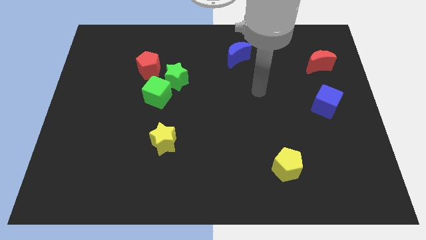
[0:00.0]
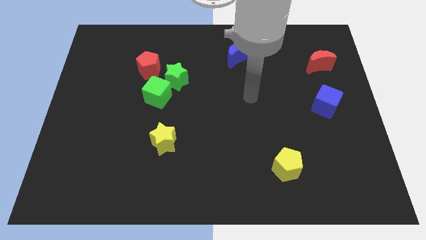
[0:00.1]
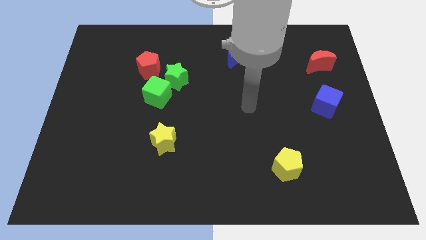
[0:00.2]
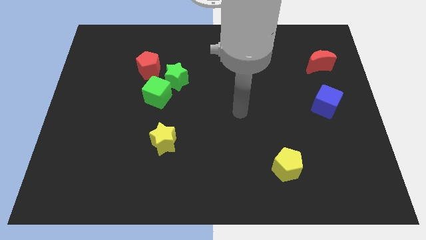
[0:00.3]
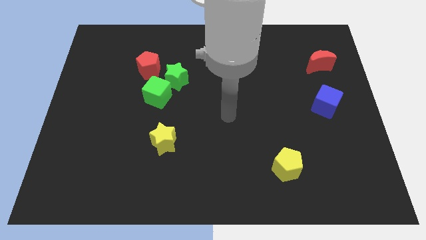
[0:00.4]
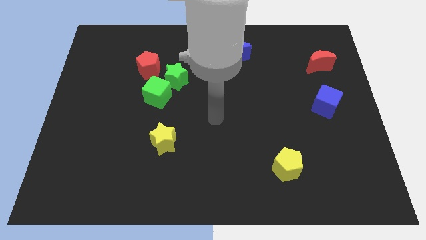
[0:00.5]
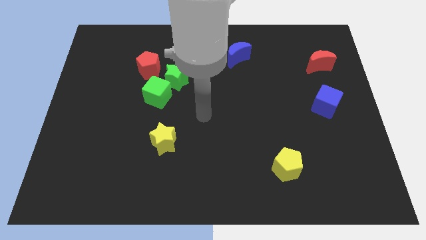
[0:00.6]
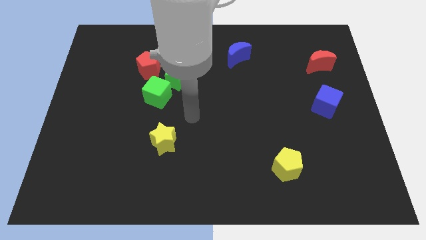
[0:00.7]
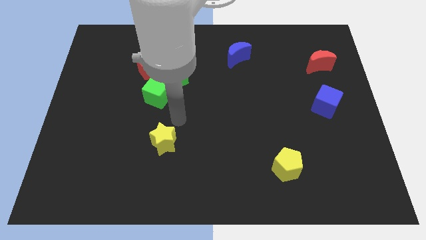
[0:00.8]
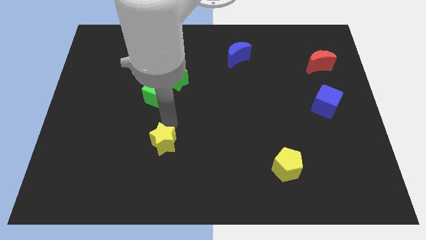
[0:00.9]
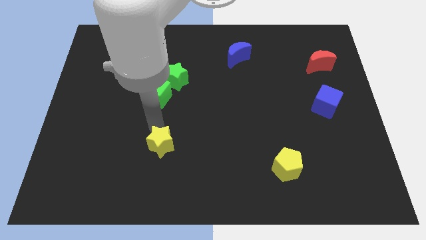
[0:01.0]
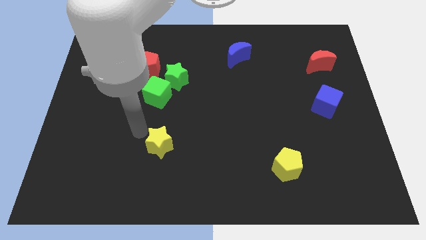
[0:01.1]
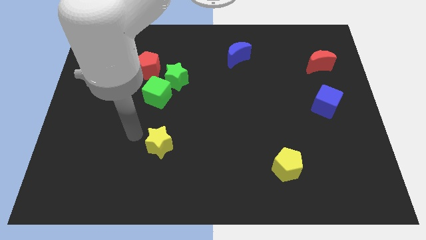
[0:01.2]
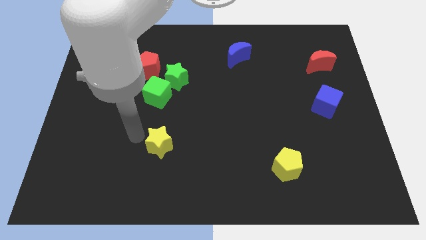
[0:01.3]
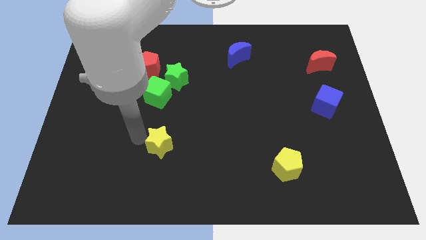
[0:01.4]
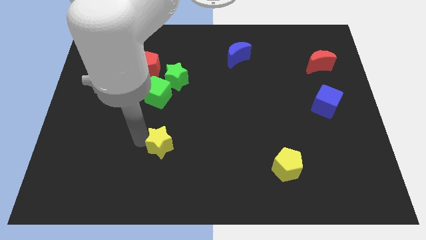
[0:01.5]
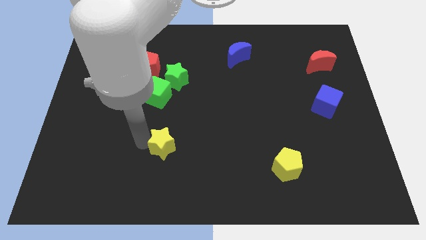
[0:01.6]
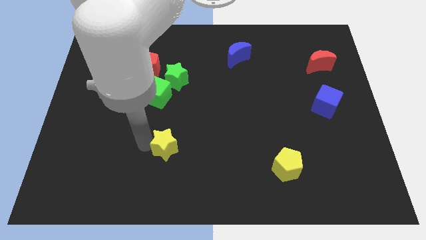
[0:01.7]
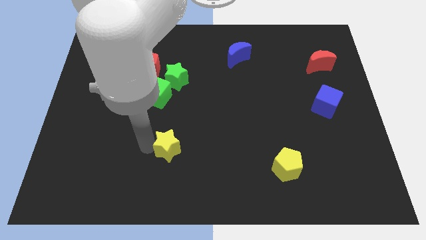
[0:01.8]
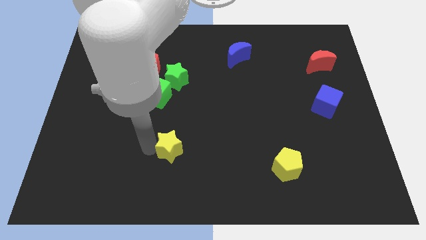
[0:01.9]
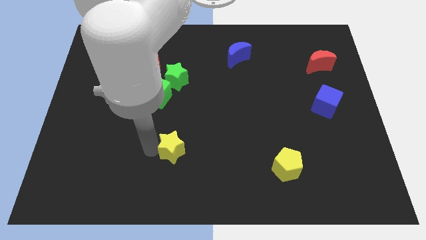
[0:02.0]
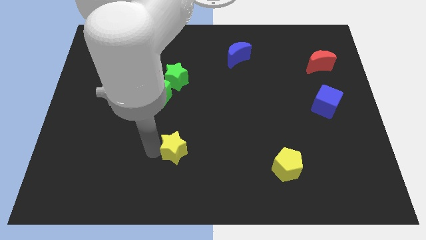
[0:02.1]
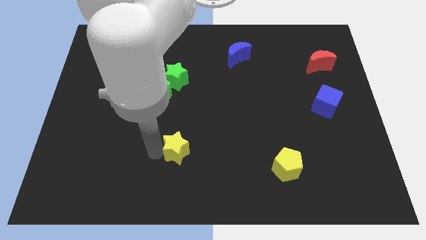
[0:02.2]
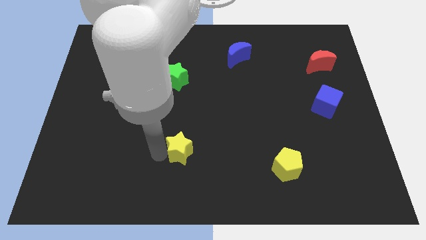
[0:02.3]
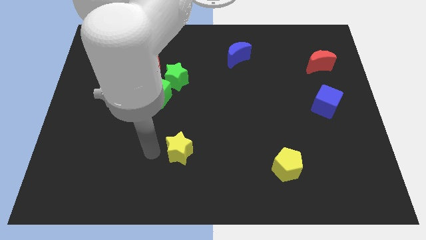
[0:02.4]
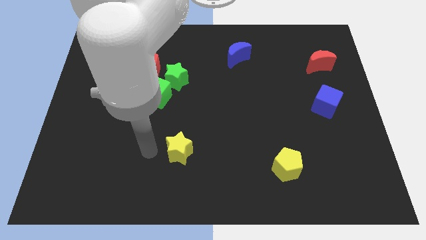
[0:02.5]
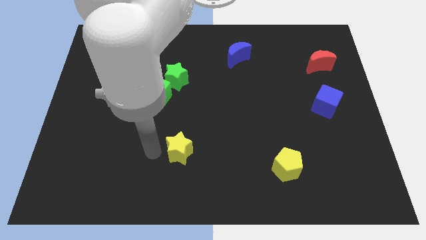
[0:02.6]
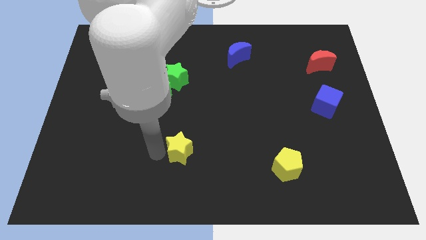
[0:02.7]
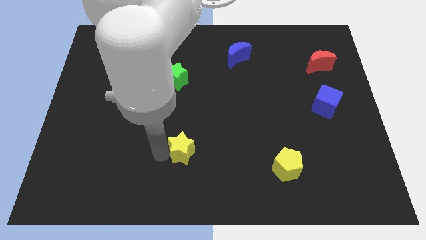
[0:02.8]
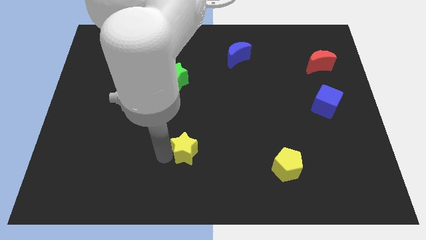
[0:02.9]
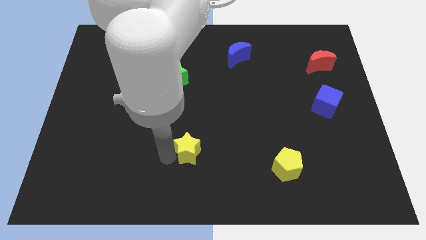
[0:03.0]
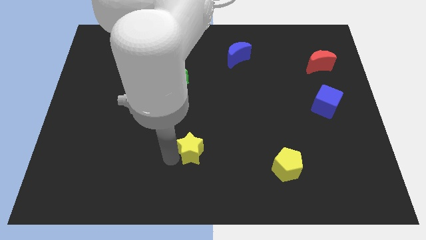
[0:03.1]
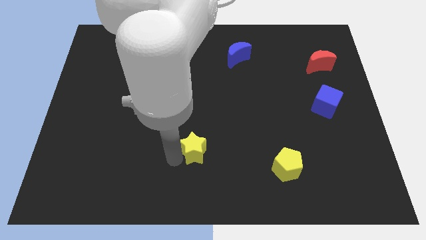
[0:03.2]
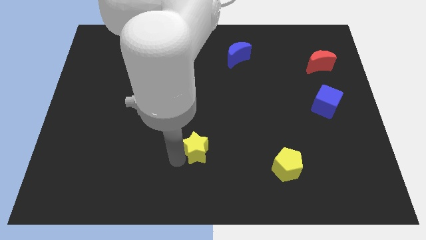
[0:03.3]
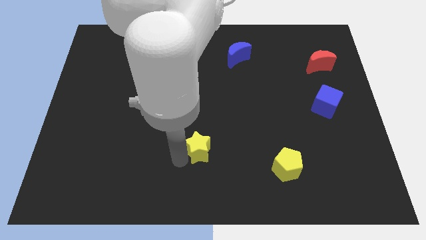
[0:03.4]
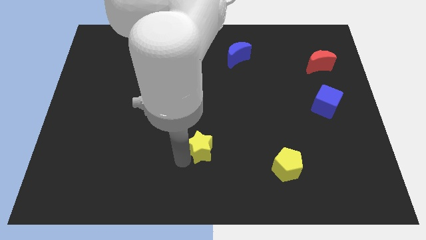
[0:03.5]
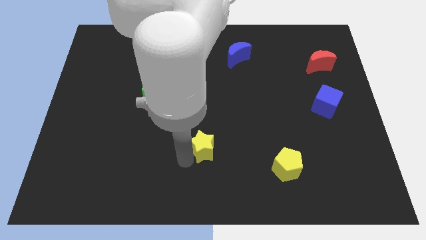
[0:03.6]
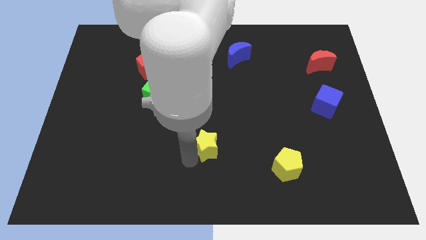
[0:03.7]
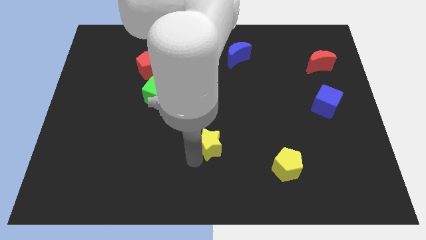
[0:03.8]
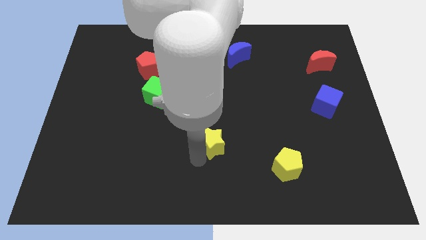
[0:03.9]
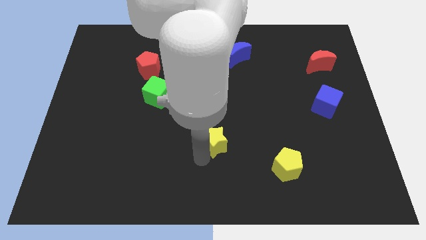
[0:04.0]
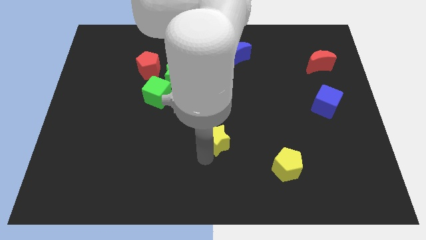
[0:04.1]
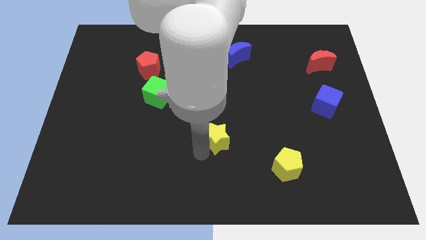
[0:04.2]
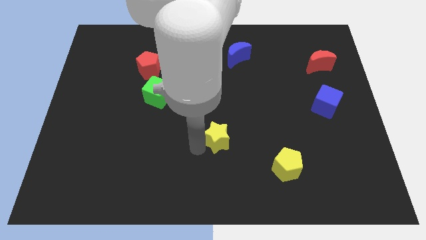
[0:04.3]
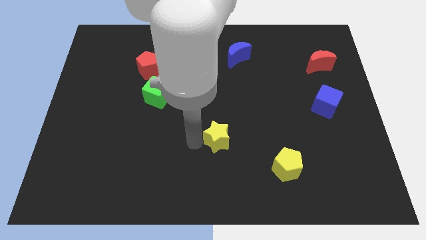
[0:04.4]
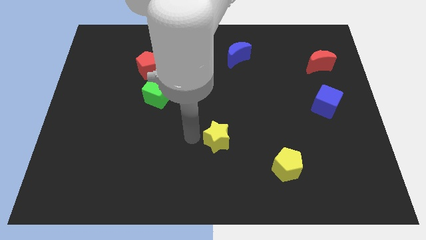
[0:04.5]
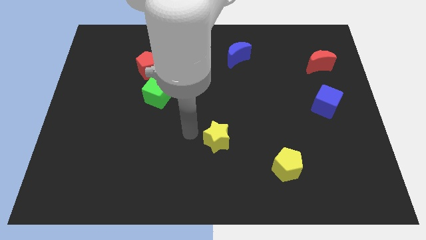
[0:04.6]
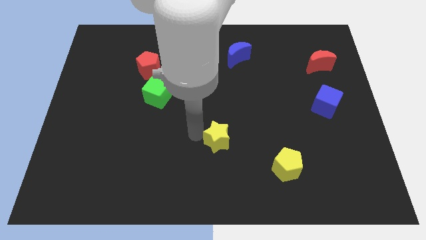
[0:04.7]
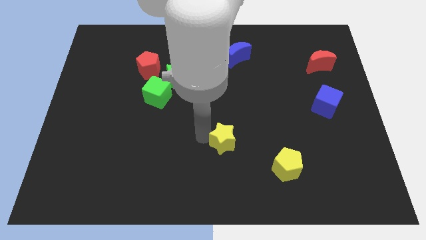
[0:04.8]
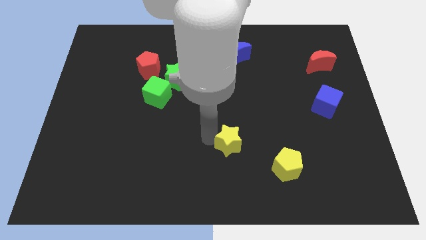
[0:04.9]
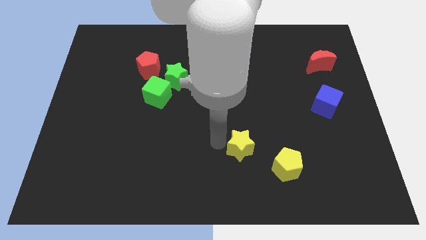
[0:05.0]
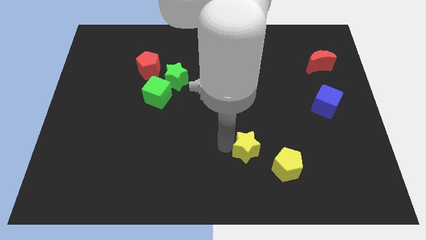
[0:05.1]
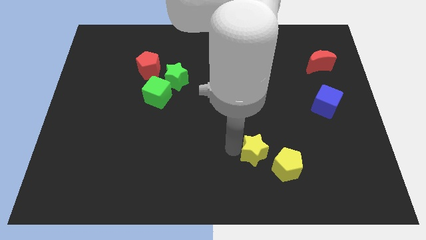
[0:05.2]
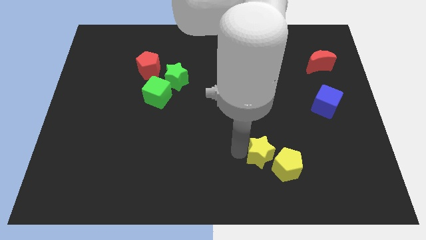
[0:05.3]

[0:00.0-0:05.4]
push the yellow star right

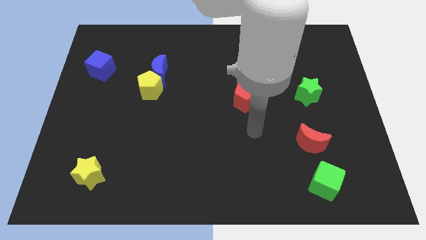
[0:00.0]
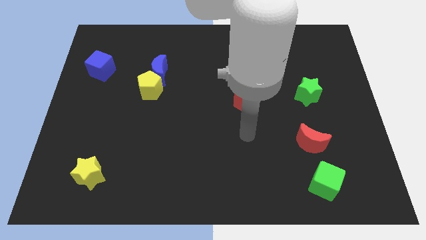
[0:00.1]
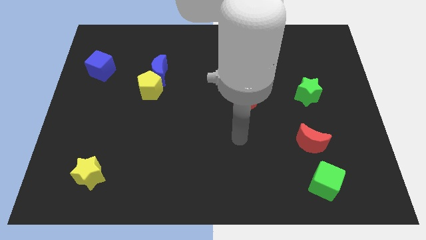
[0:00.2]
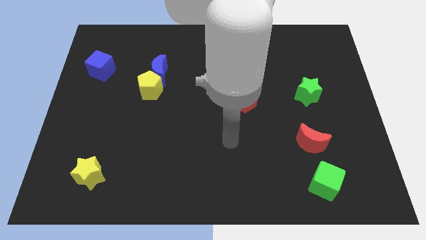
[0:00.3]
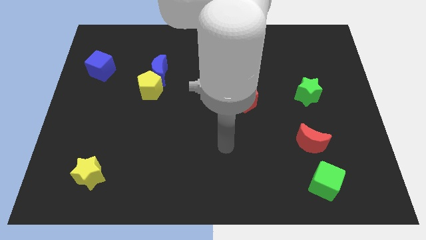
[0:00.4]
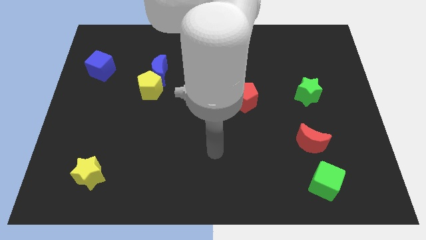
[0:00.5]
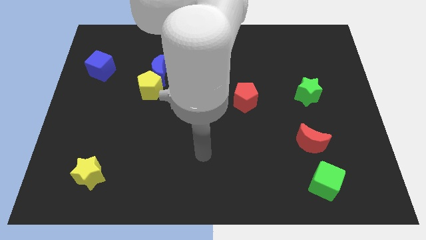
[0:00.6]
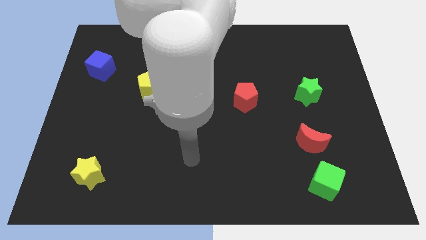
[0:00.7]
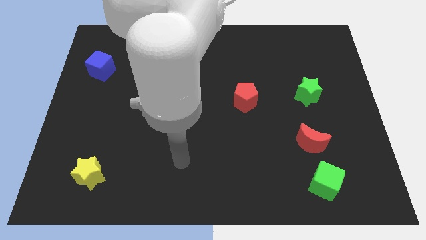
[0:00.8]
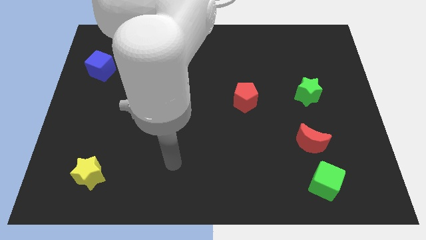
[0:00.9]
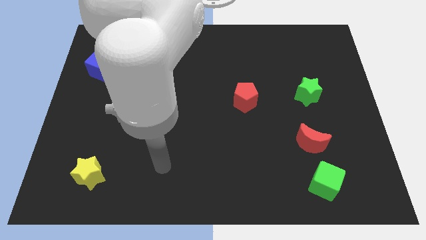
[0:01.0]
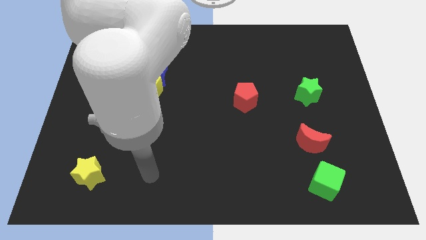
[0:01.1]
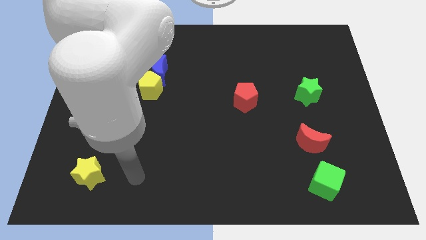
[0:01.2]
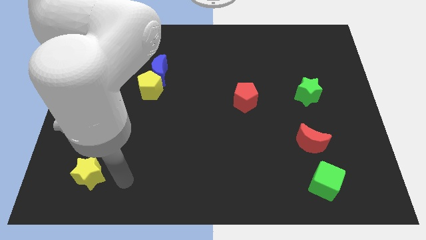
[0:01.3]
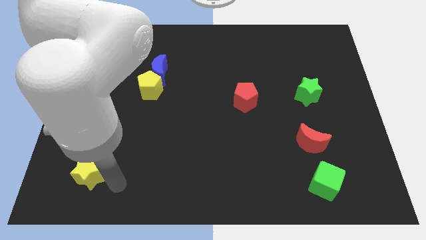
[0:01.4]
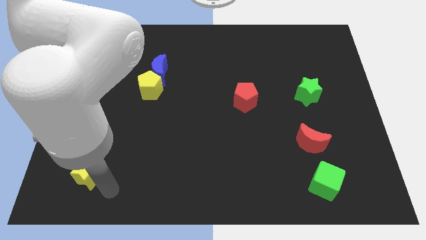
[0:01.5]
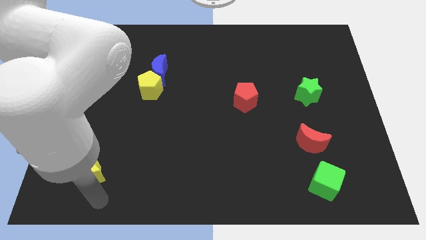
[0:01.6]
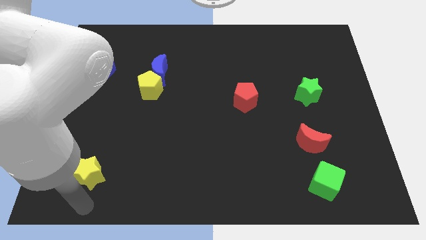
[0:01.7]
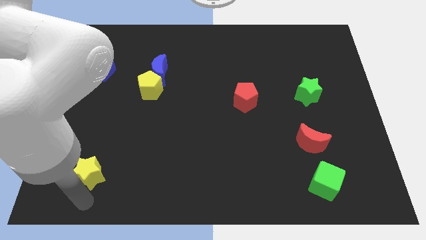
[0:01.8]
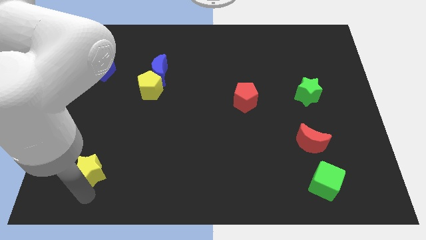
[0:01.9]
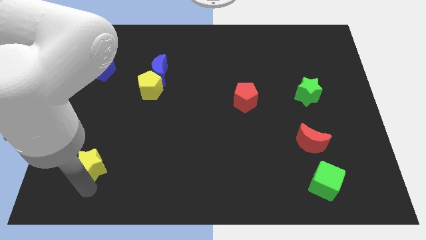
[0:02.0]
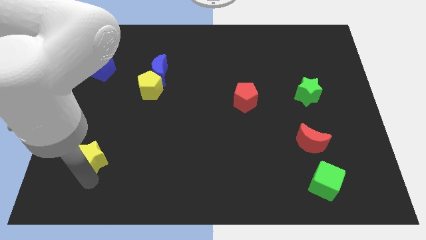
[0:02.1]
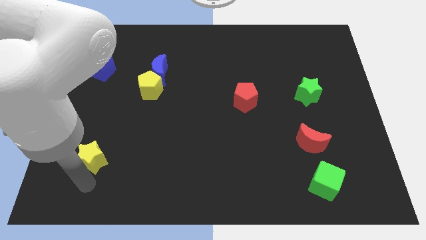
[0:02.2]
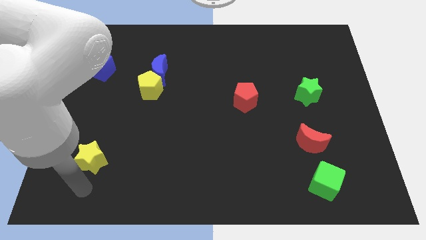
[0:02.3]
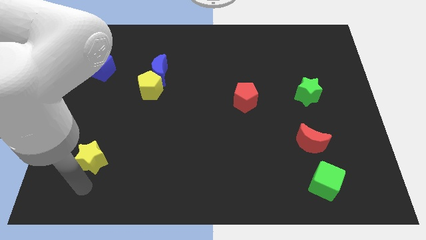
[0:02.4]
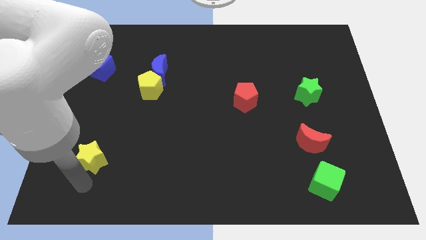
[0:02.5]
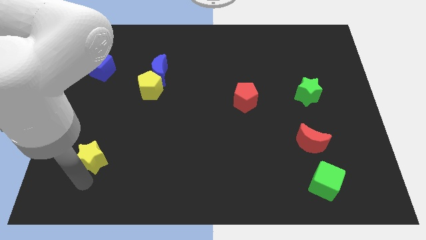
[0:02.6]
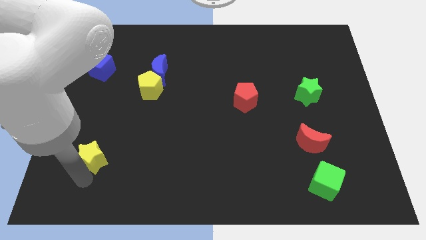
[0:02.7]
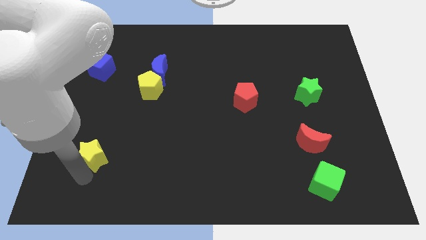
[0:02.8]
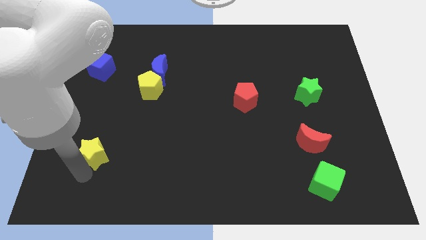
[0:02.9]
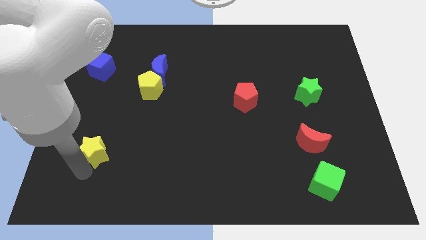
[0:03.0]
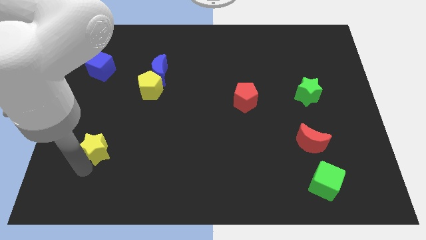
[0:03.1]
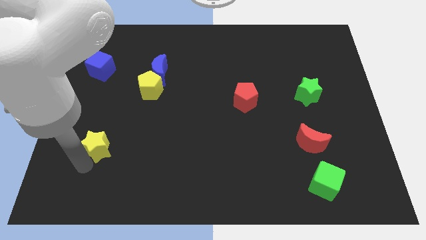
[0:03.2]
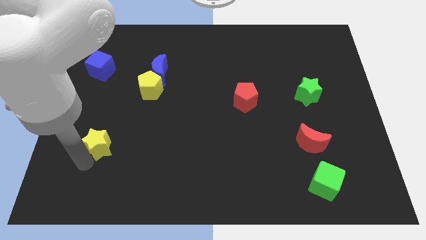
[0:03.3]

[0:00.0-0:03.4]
push the yellow star up somewhat
